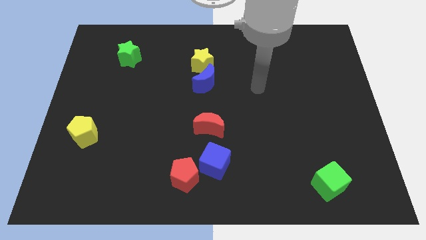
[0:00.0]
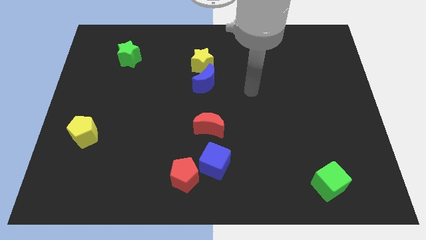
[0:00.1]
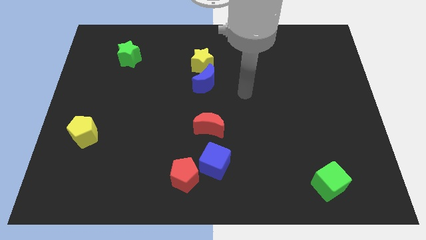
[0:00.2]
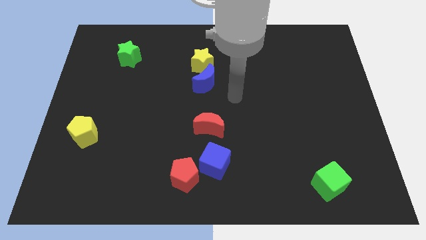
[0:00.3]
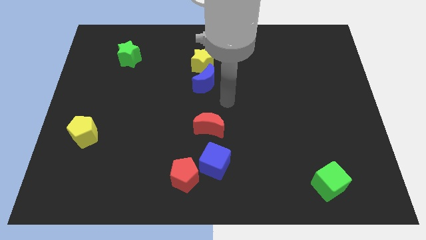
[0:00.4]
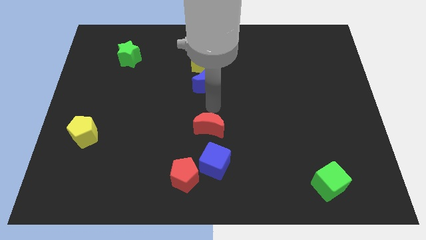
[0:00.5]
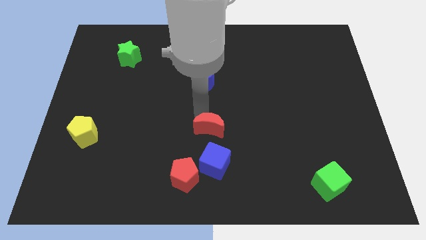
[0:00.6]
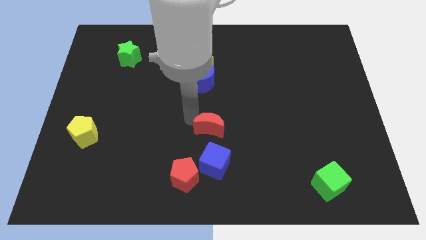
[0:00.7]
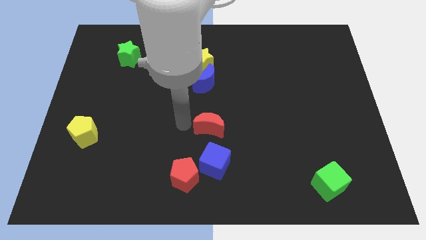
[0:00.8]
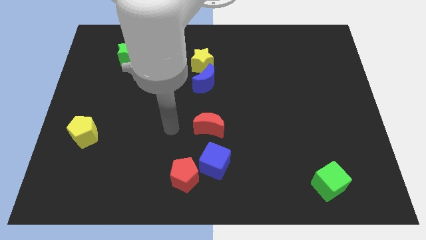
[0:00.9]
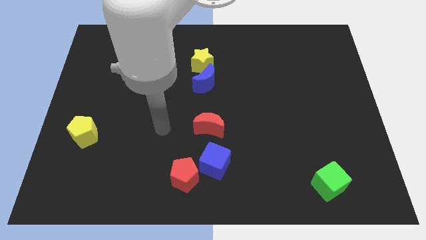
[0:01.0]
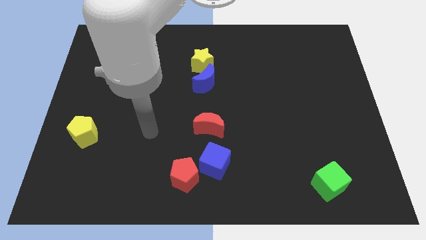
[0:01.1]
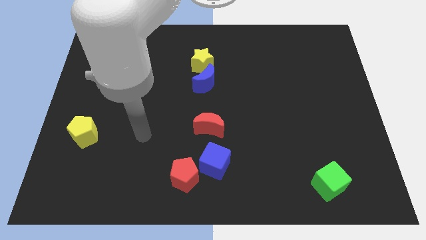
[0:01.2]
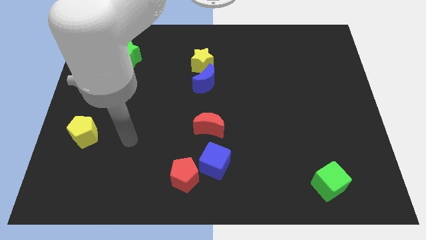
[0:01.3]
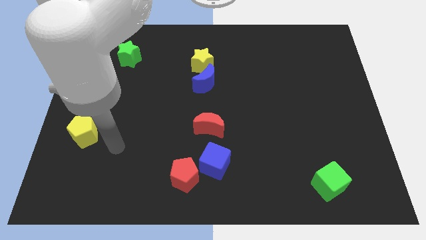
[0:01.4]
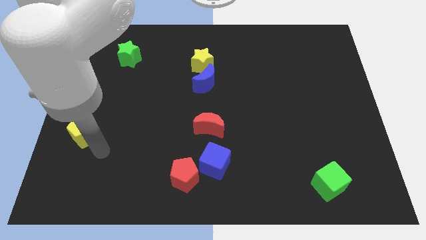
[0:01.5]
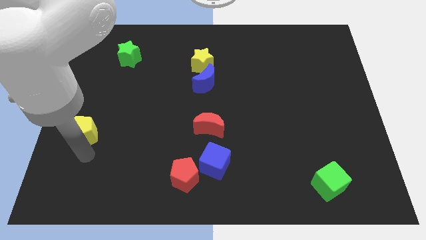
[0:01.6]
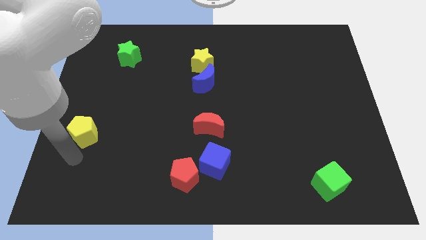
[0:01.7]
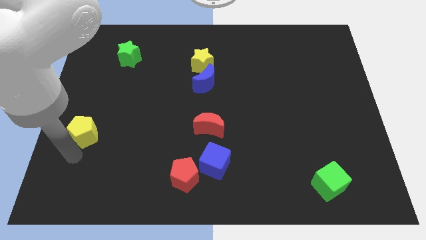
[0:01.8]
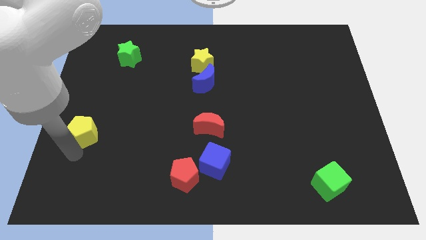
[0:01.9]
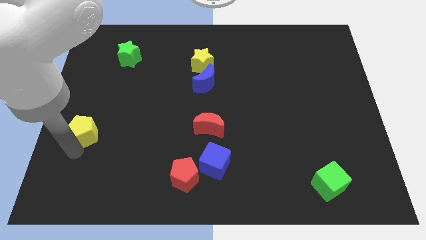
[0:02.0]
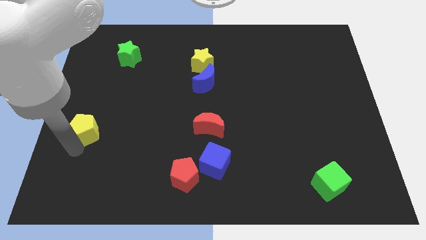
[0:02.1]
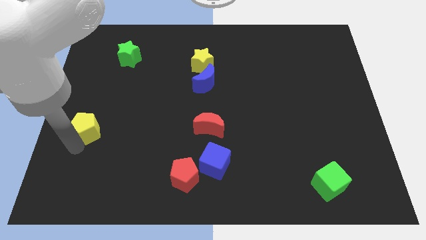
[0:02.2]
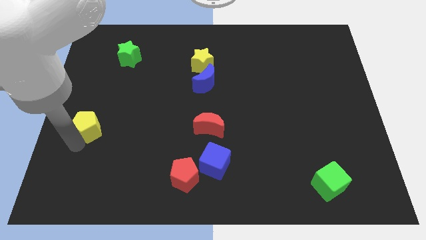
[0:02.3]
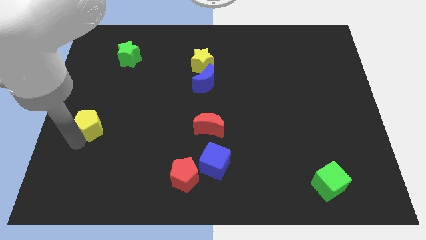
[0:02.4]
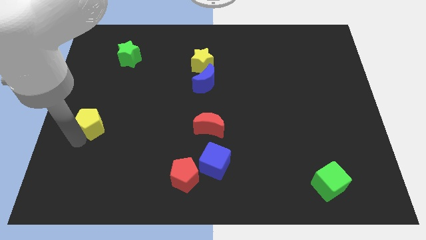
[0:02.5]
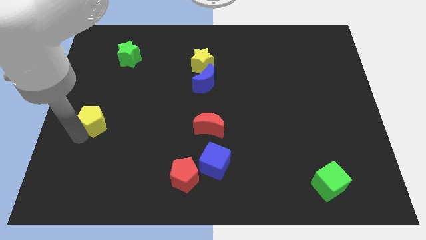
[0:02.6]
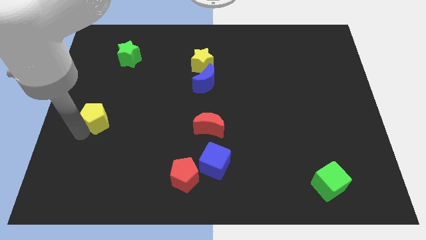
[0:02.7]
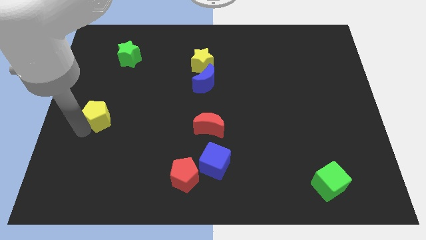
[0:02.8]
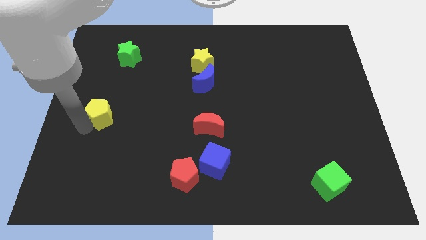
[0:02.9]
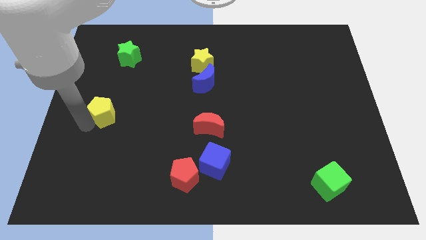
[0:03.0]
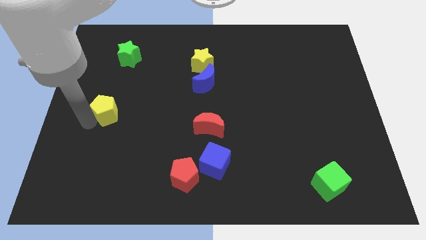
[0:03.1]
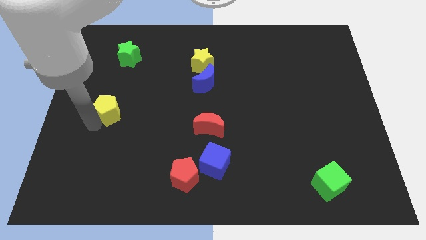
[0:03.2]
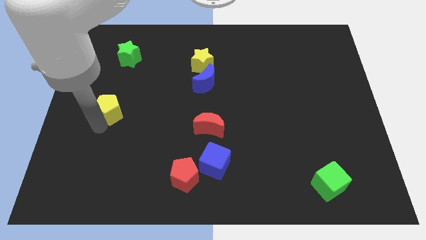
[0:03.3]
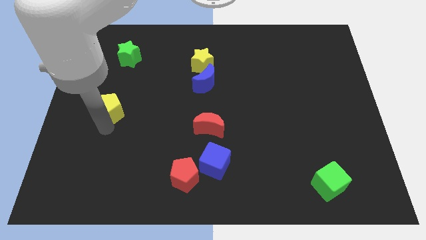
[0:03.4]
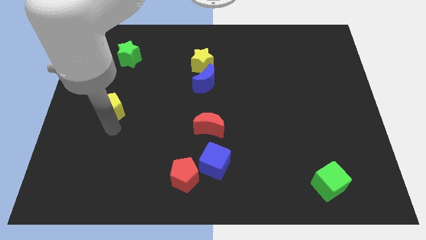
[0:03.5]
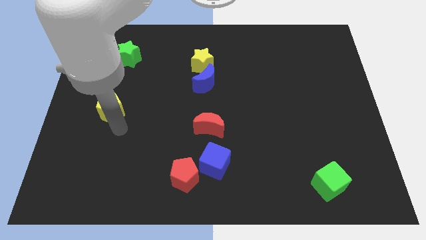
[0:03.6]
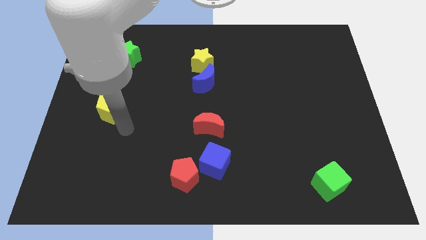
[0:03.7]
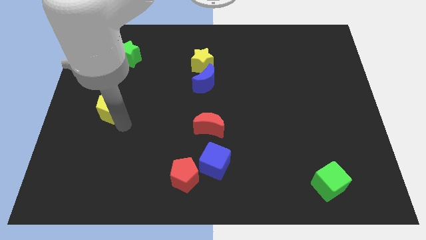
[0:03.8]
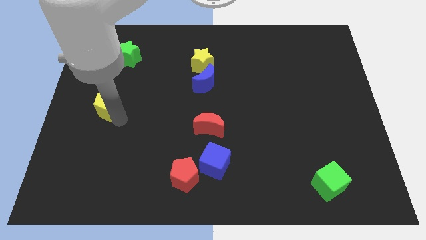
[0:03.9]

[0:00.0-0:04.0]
slide the yellow pentagon up a bit

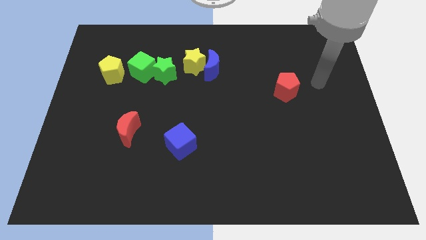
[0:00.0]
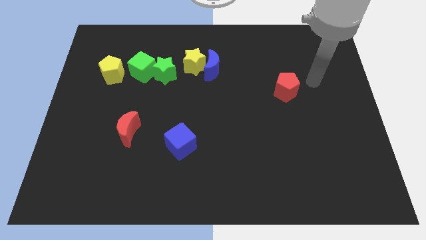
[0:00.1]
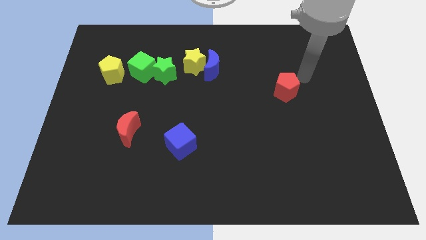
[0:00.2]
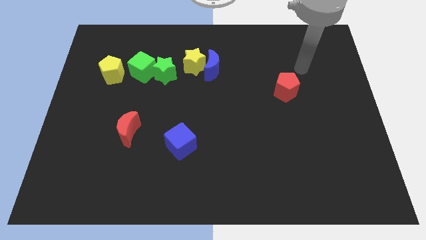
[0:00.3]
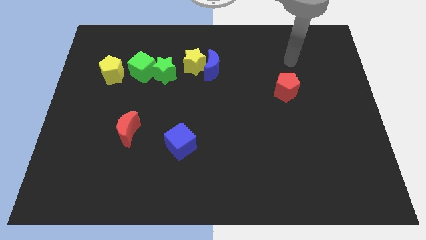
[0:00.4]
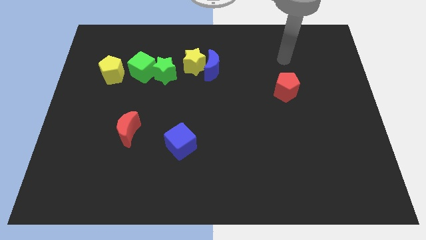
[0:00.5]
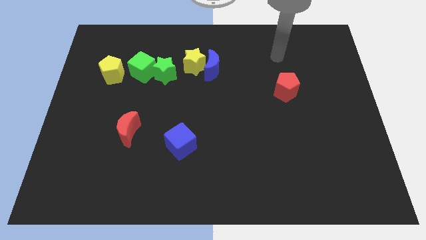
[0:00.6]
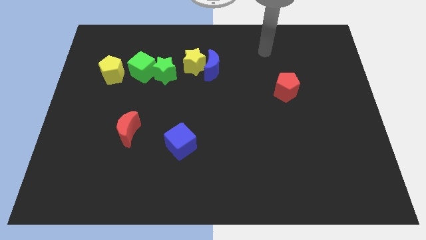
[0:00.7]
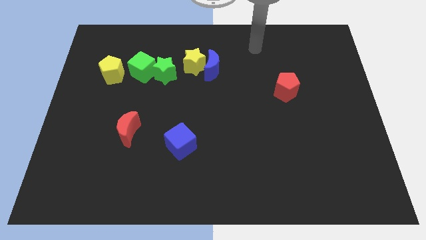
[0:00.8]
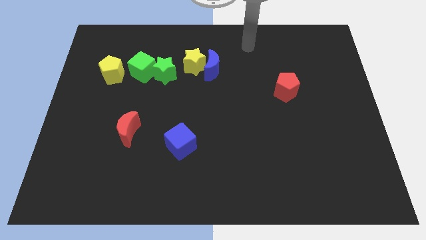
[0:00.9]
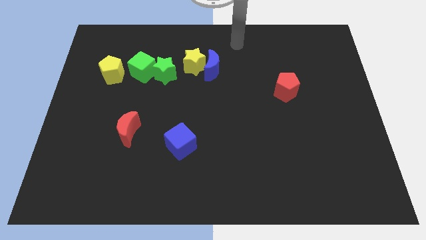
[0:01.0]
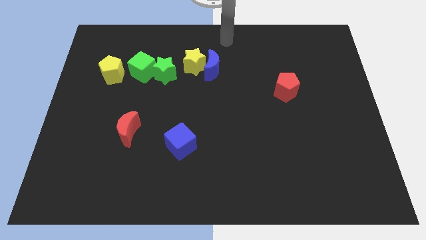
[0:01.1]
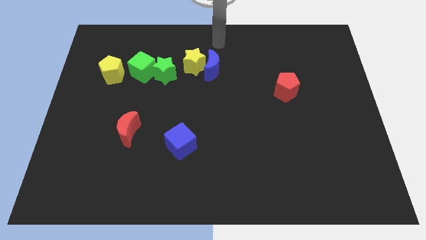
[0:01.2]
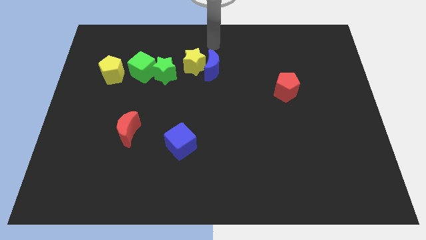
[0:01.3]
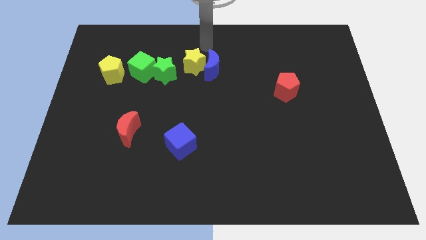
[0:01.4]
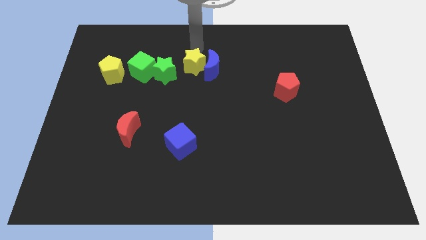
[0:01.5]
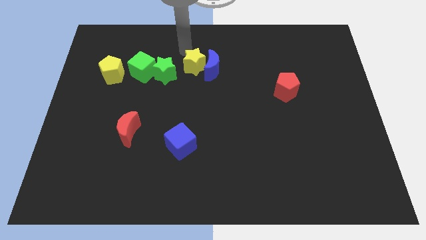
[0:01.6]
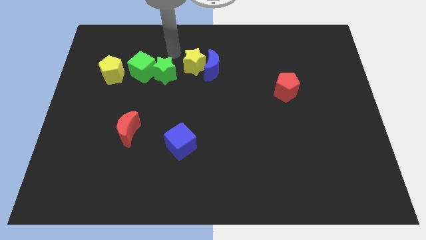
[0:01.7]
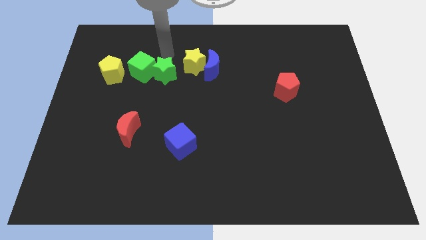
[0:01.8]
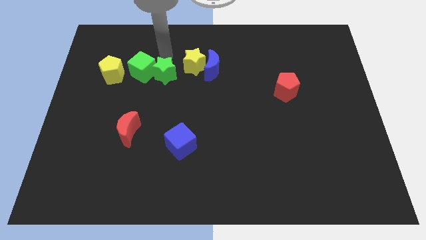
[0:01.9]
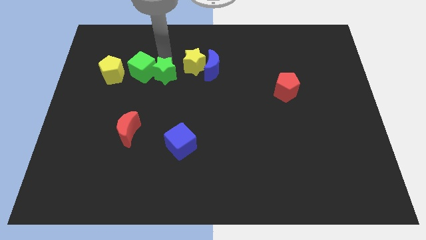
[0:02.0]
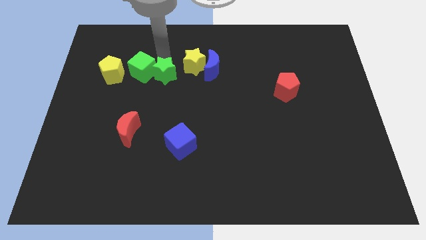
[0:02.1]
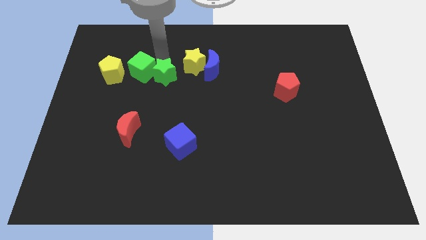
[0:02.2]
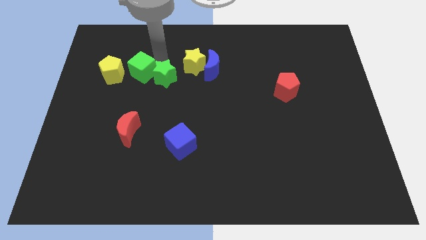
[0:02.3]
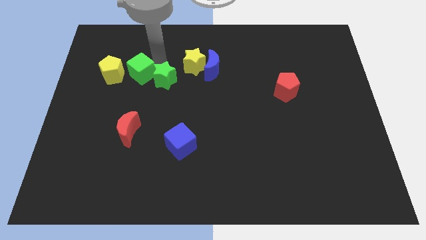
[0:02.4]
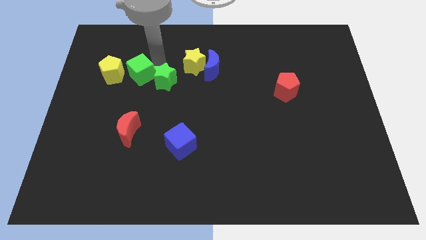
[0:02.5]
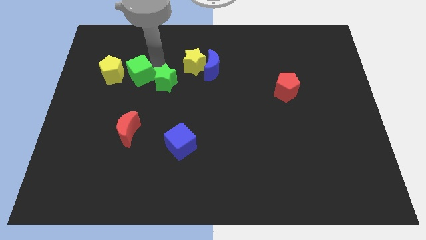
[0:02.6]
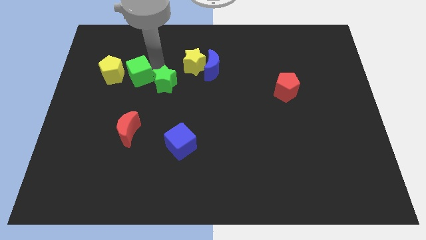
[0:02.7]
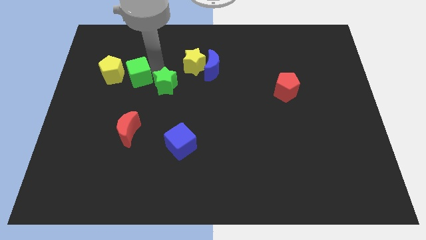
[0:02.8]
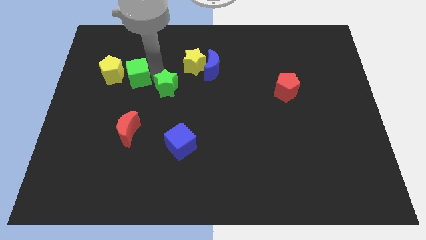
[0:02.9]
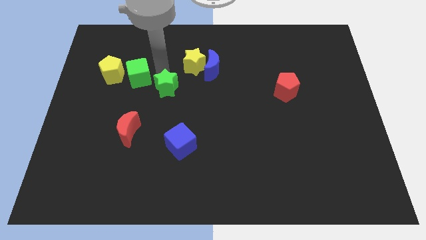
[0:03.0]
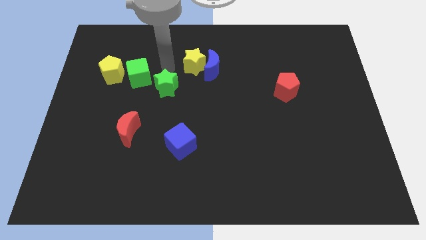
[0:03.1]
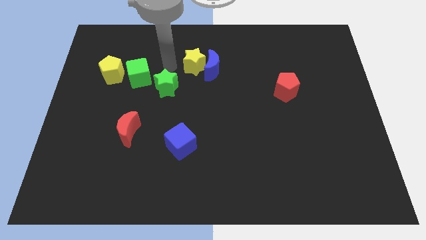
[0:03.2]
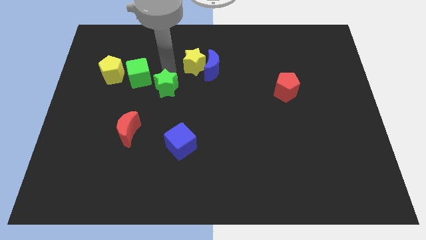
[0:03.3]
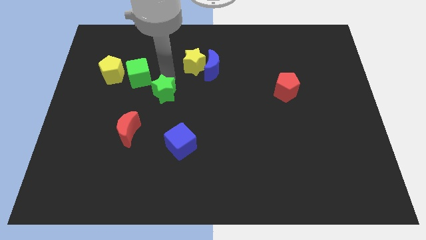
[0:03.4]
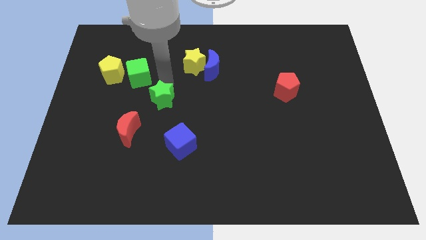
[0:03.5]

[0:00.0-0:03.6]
move the green star a bit down

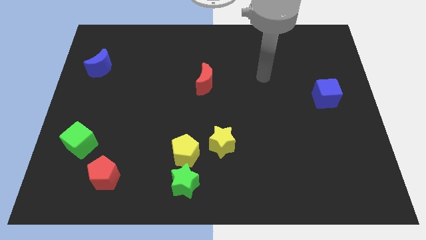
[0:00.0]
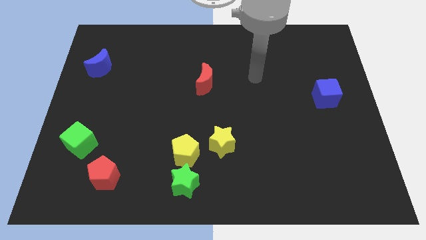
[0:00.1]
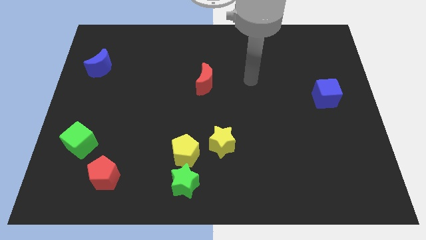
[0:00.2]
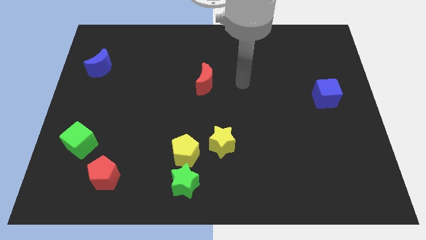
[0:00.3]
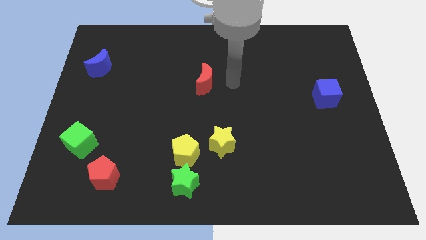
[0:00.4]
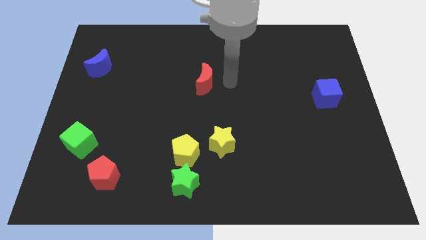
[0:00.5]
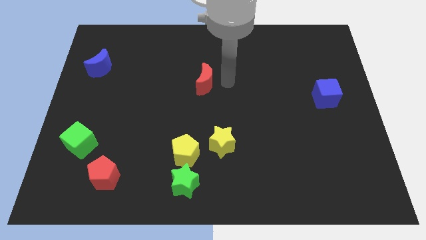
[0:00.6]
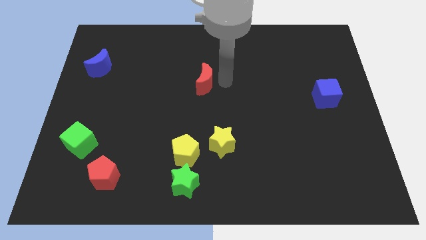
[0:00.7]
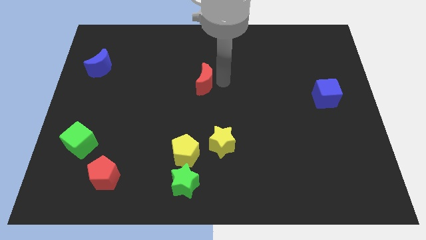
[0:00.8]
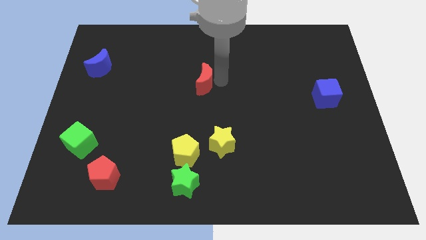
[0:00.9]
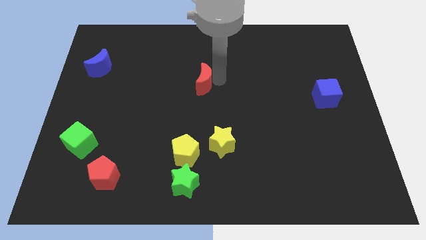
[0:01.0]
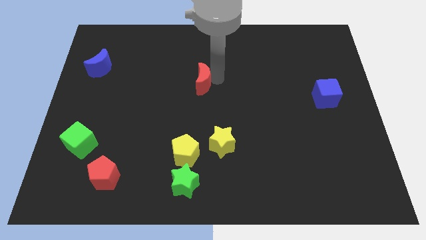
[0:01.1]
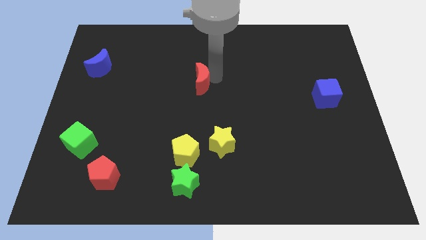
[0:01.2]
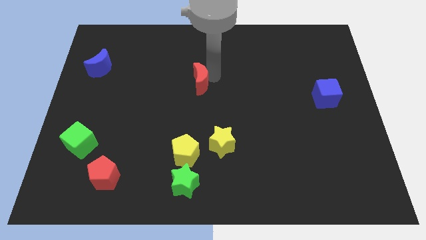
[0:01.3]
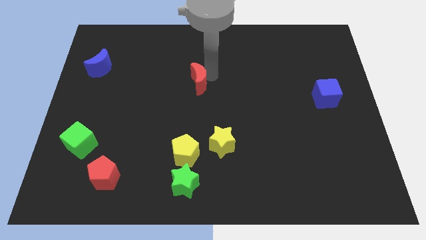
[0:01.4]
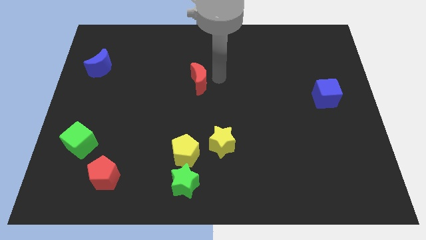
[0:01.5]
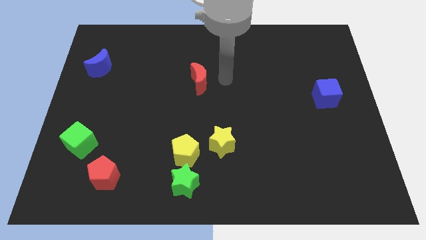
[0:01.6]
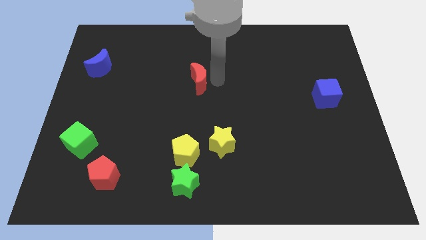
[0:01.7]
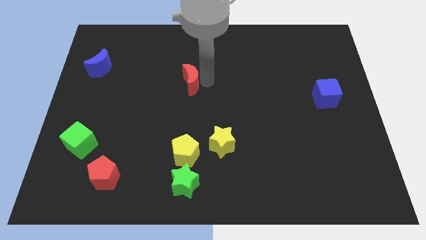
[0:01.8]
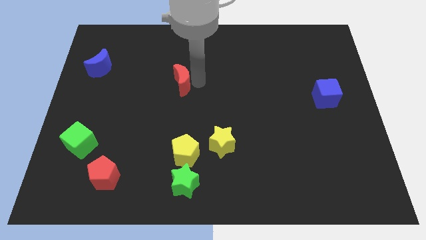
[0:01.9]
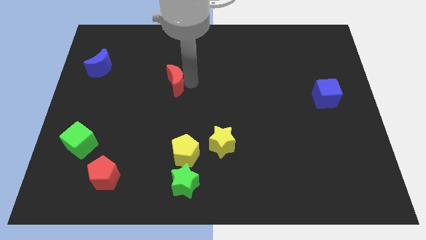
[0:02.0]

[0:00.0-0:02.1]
move the red moon left slightly
